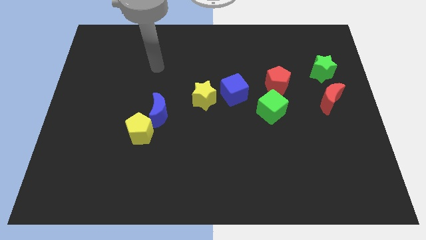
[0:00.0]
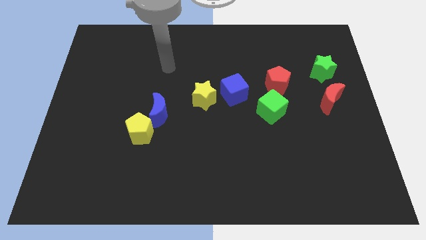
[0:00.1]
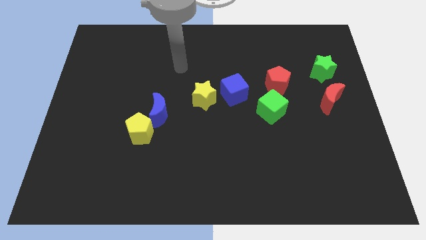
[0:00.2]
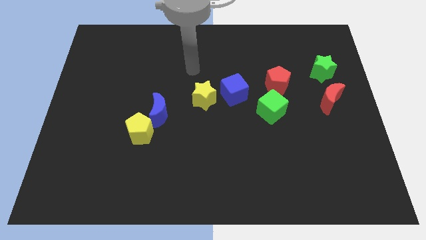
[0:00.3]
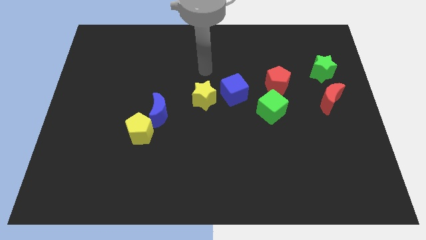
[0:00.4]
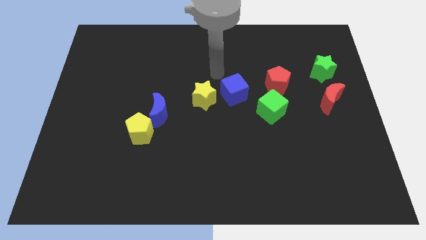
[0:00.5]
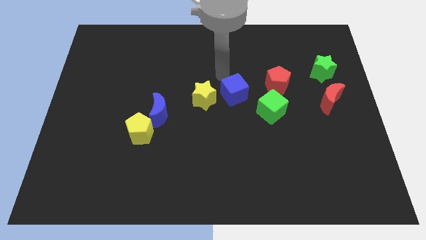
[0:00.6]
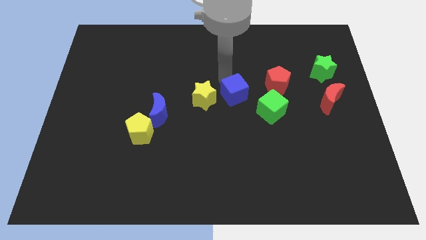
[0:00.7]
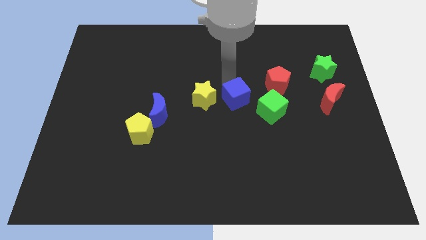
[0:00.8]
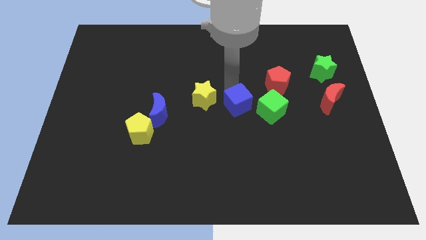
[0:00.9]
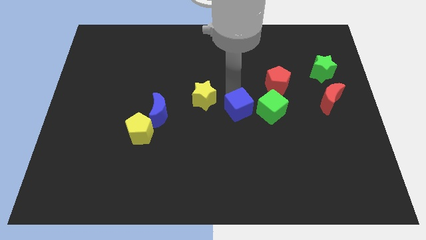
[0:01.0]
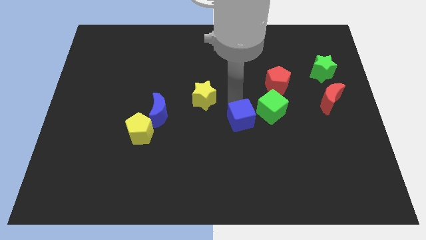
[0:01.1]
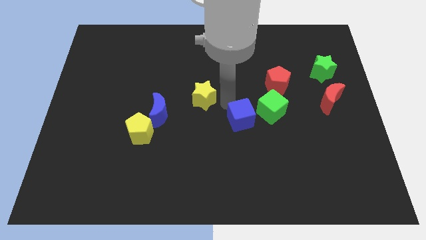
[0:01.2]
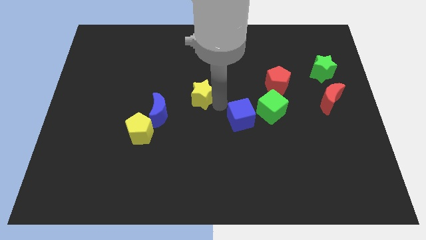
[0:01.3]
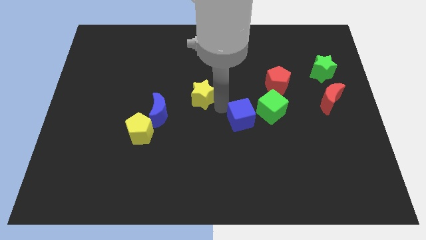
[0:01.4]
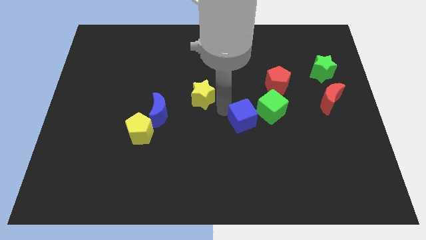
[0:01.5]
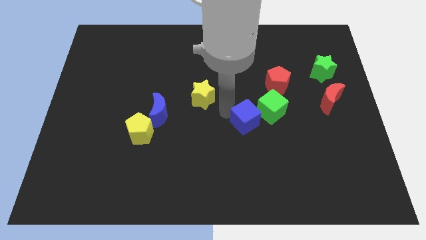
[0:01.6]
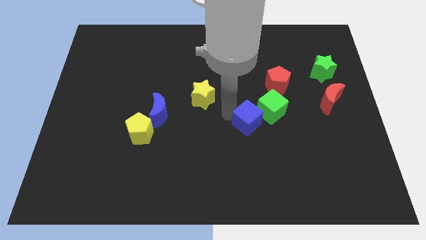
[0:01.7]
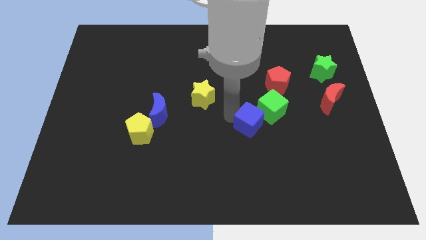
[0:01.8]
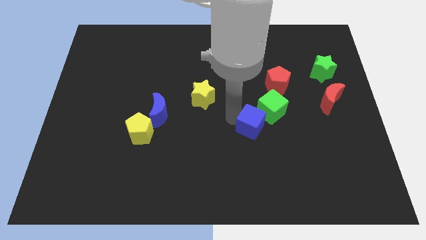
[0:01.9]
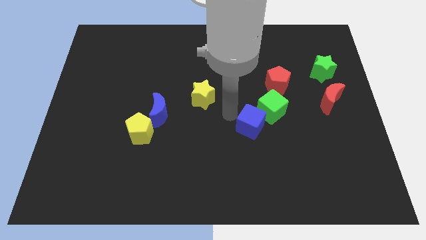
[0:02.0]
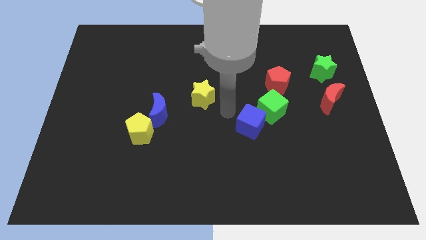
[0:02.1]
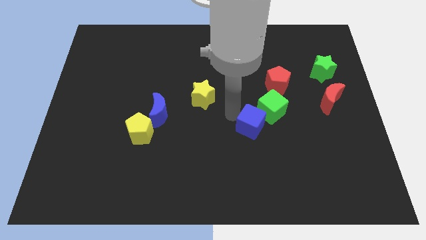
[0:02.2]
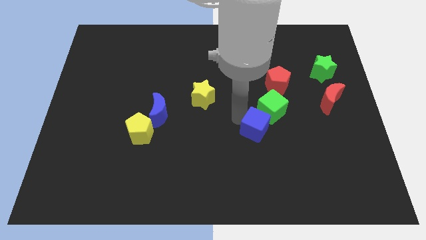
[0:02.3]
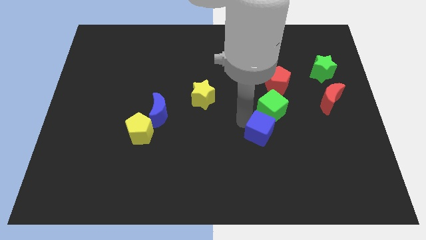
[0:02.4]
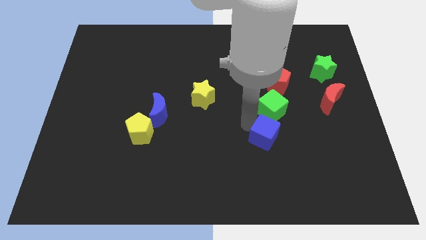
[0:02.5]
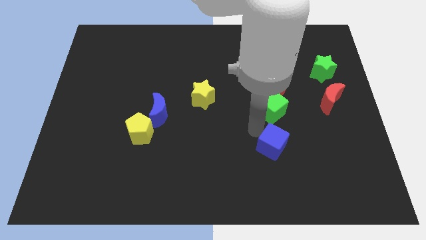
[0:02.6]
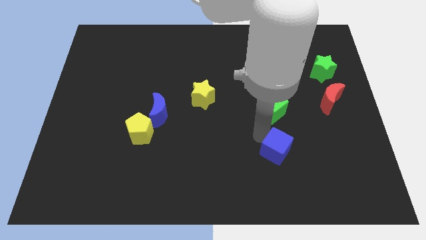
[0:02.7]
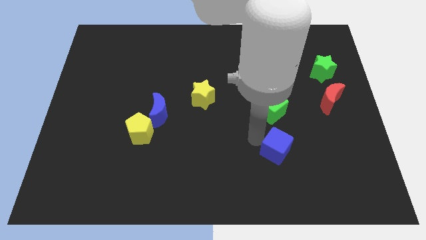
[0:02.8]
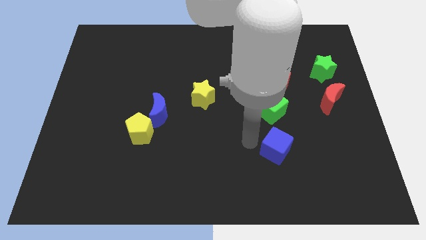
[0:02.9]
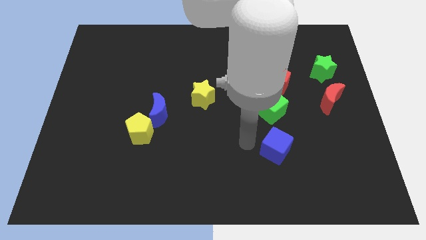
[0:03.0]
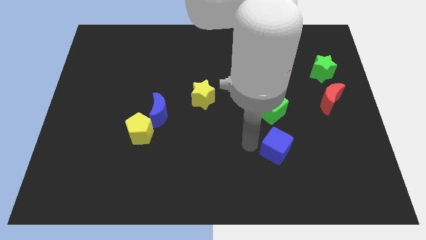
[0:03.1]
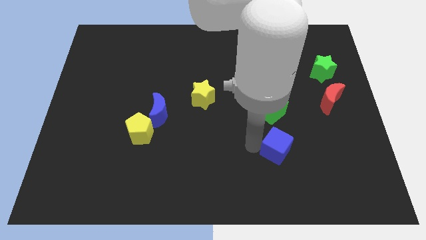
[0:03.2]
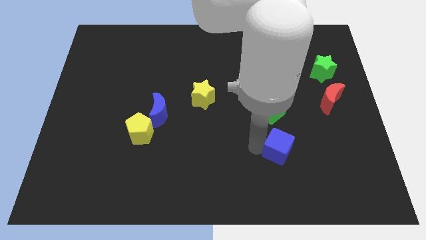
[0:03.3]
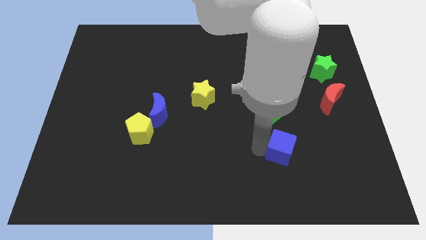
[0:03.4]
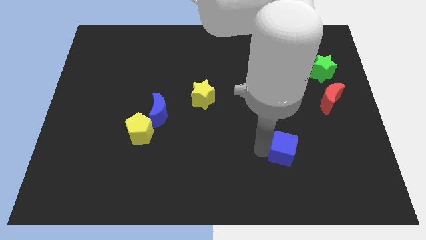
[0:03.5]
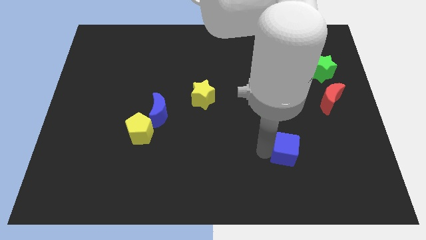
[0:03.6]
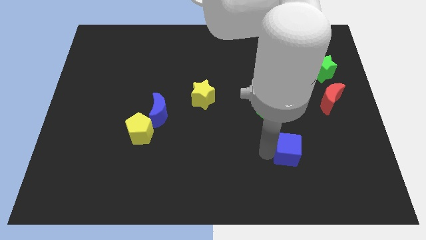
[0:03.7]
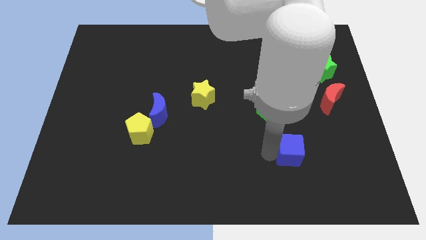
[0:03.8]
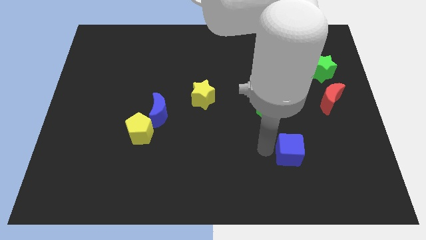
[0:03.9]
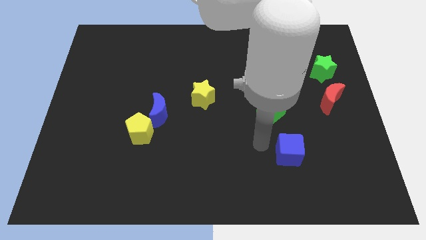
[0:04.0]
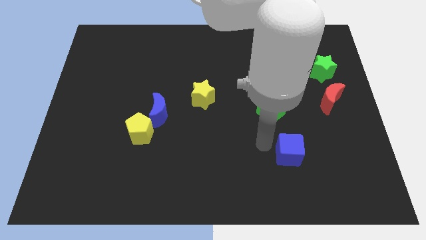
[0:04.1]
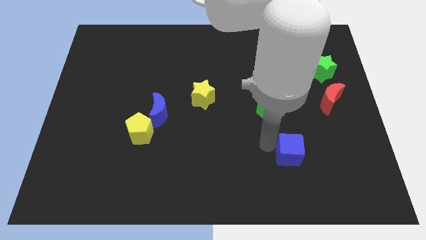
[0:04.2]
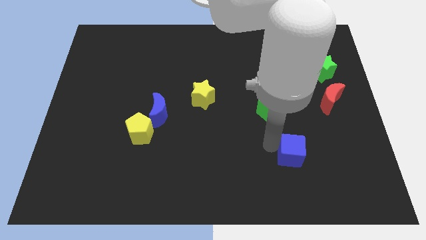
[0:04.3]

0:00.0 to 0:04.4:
slide the blue cube down and then right

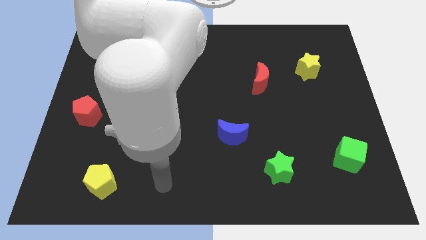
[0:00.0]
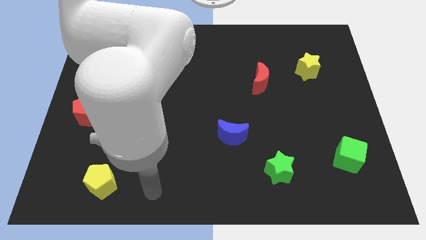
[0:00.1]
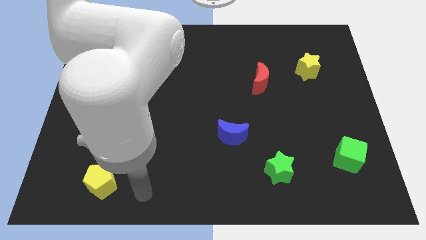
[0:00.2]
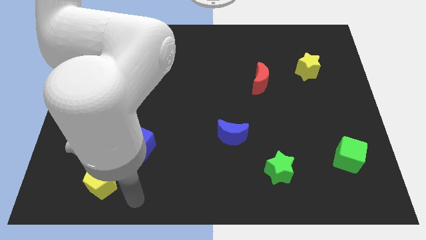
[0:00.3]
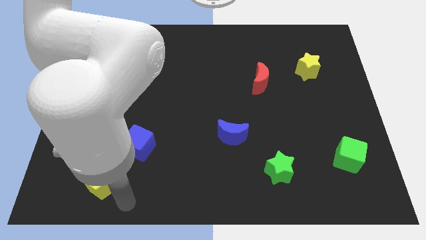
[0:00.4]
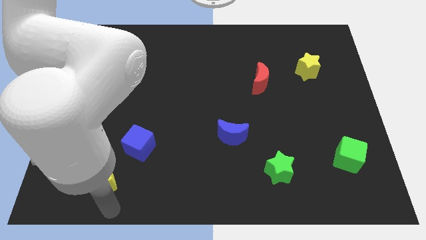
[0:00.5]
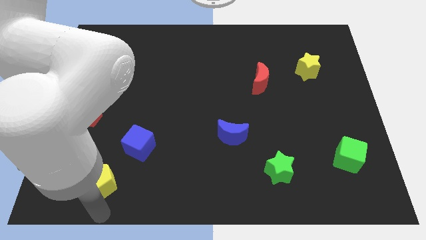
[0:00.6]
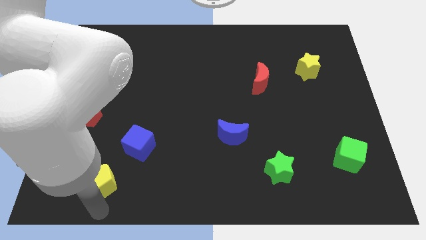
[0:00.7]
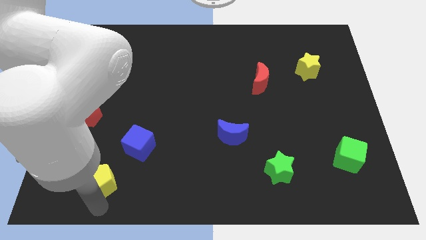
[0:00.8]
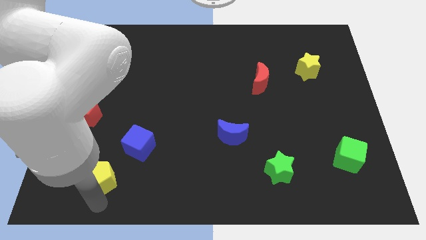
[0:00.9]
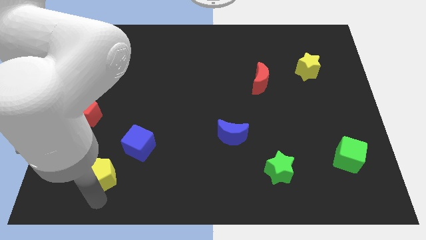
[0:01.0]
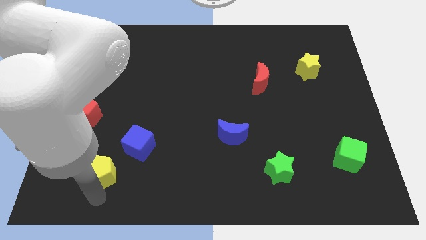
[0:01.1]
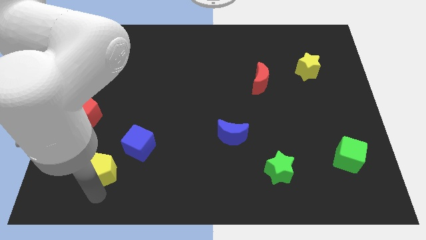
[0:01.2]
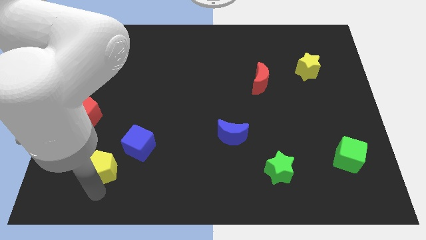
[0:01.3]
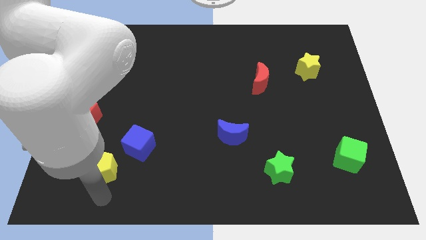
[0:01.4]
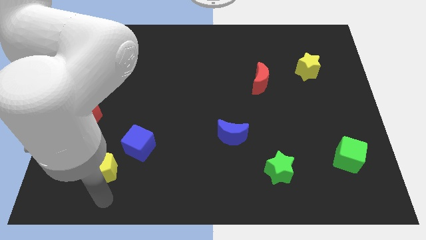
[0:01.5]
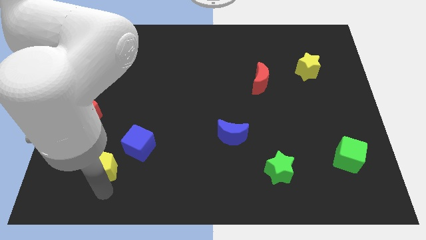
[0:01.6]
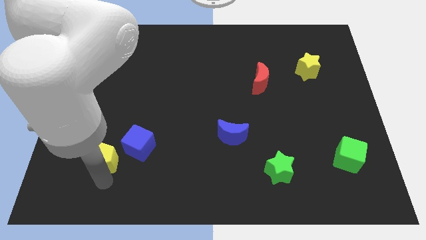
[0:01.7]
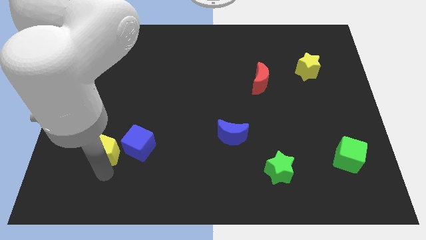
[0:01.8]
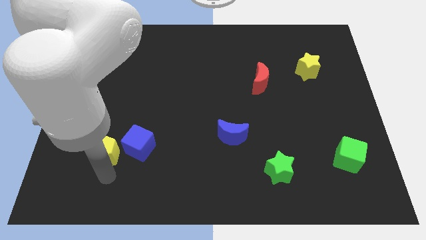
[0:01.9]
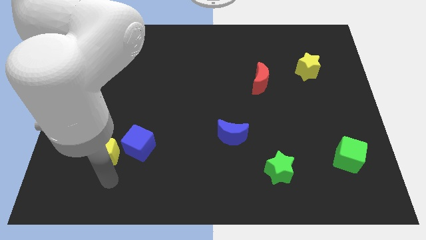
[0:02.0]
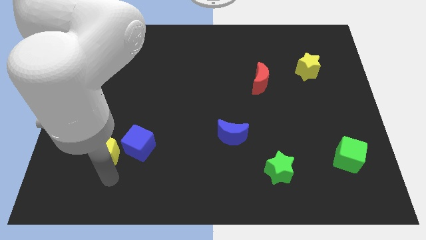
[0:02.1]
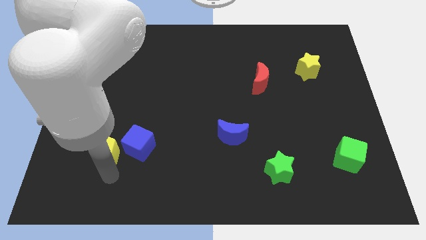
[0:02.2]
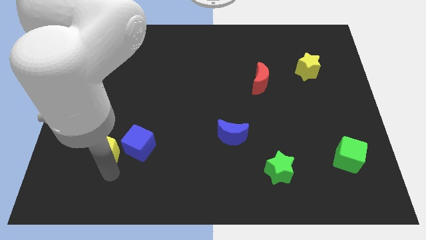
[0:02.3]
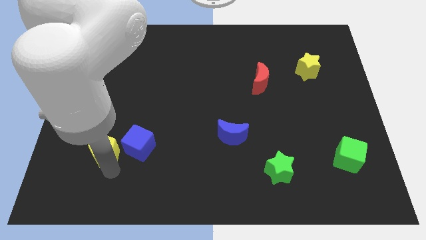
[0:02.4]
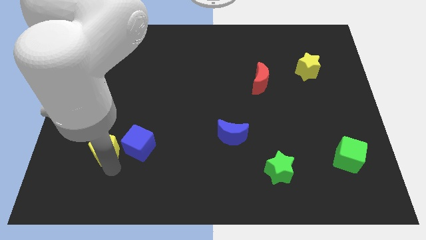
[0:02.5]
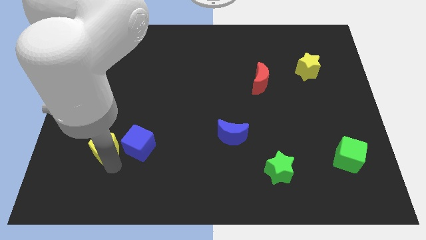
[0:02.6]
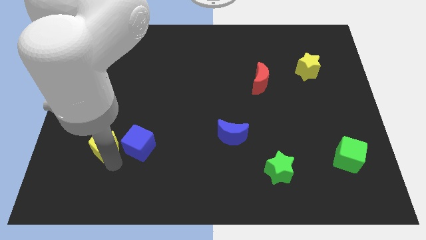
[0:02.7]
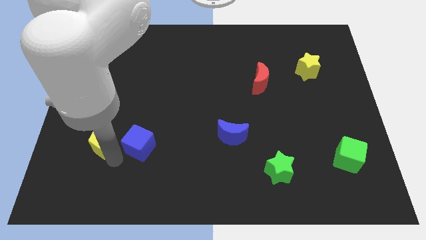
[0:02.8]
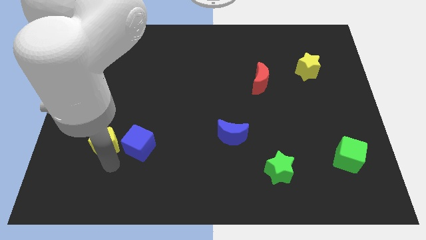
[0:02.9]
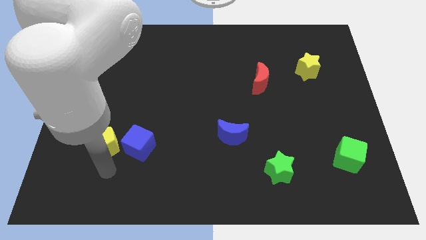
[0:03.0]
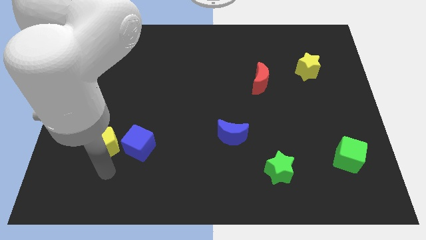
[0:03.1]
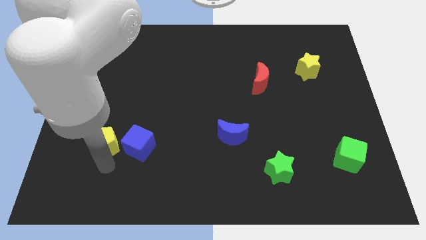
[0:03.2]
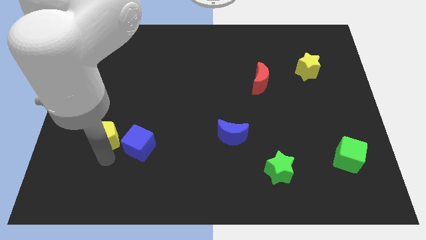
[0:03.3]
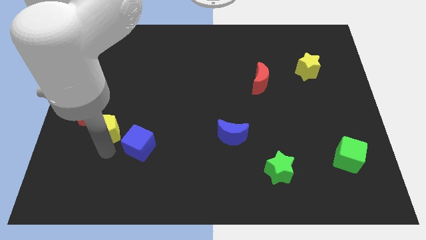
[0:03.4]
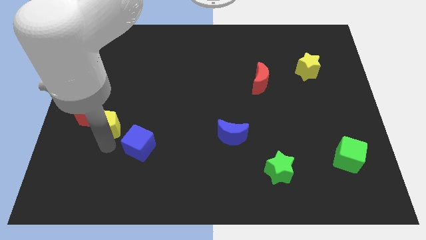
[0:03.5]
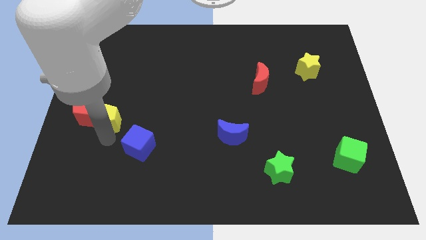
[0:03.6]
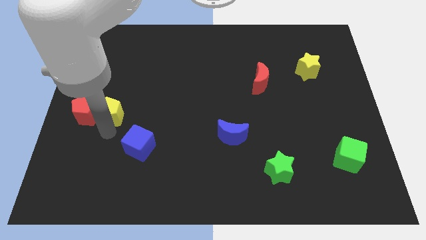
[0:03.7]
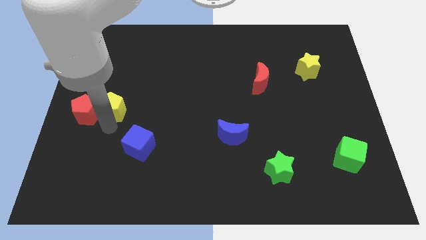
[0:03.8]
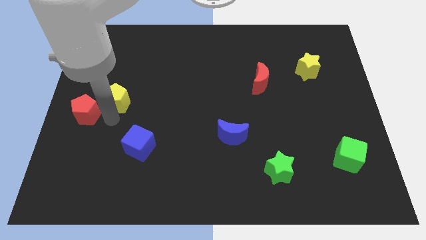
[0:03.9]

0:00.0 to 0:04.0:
push the yellow pentagon up
